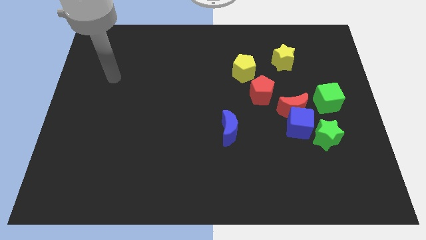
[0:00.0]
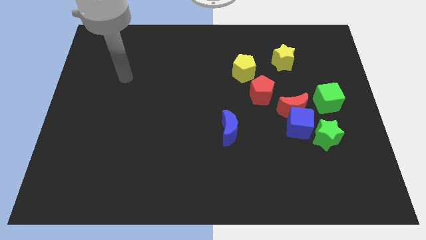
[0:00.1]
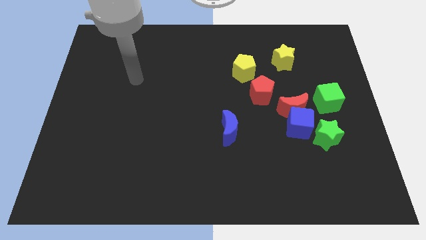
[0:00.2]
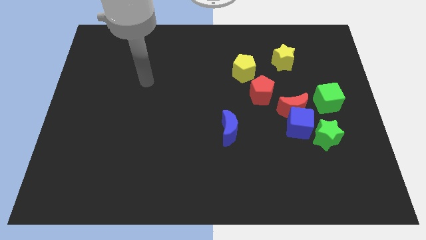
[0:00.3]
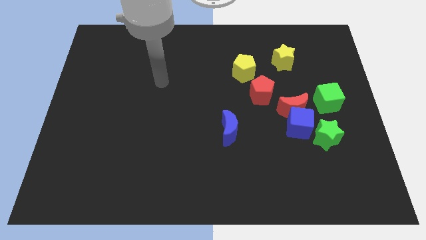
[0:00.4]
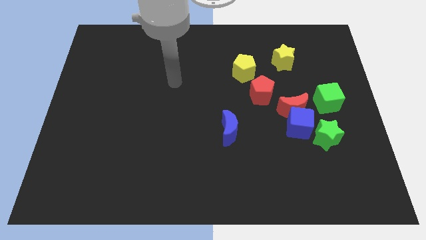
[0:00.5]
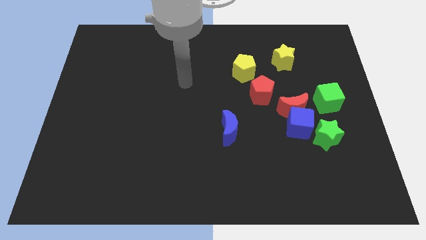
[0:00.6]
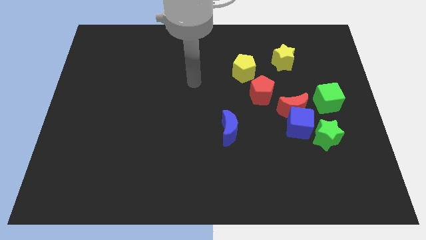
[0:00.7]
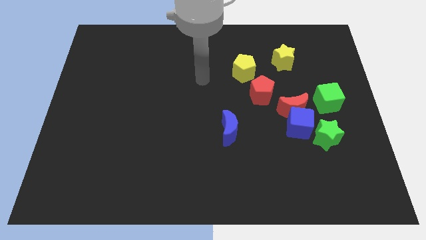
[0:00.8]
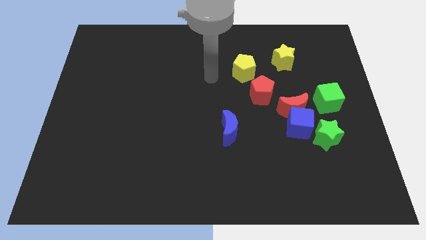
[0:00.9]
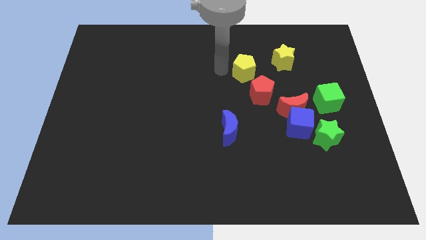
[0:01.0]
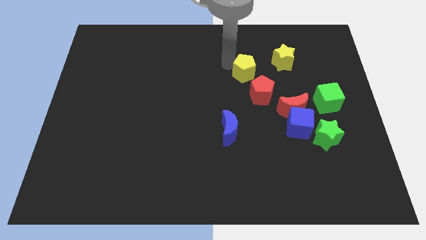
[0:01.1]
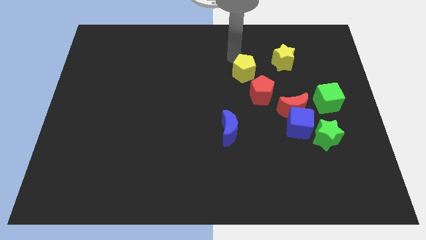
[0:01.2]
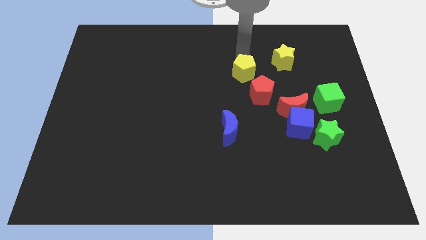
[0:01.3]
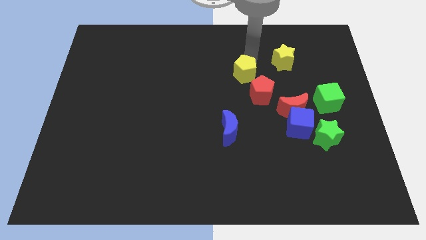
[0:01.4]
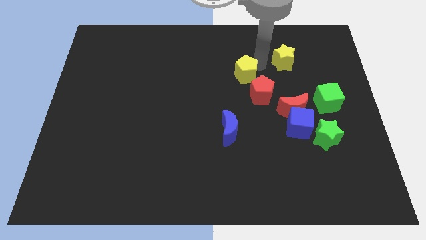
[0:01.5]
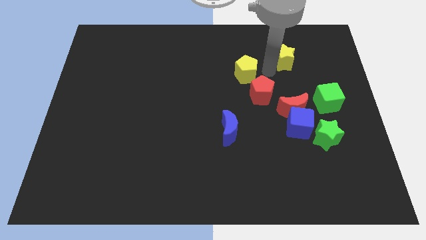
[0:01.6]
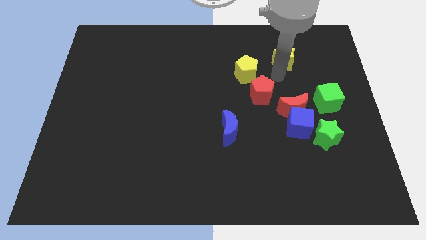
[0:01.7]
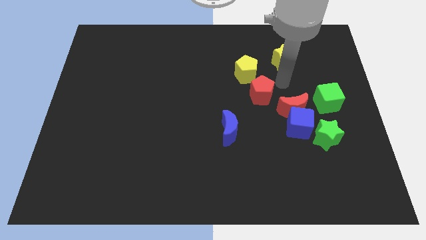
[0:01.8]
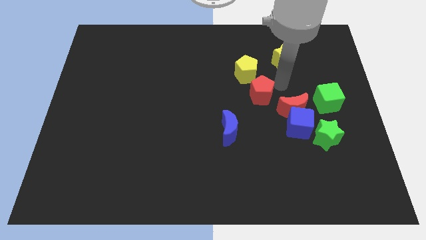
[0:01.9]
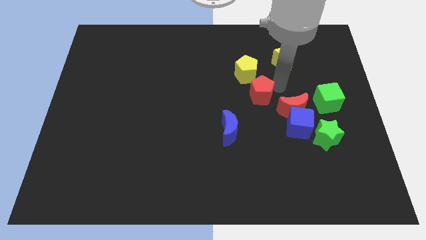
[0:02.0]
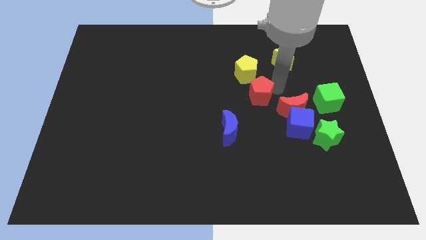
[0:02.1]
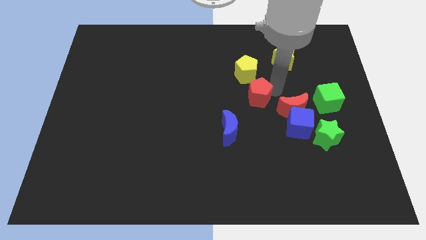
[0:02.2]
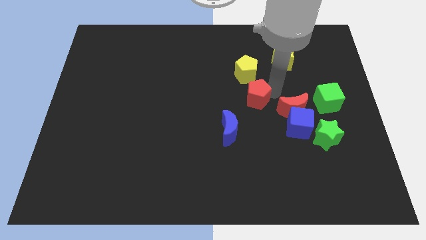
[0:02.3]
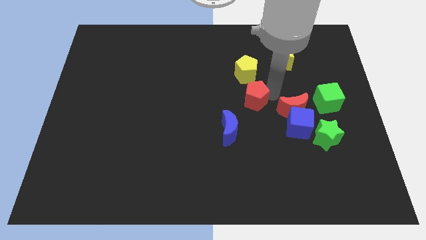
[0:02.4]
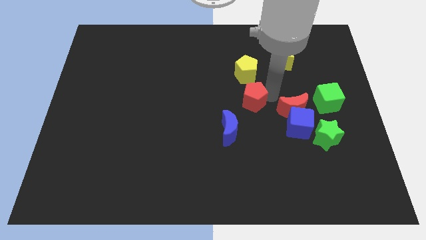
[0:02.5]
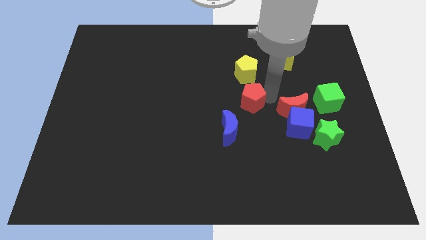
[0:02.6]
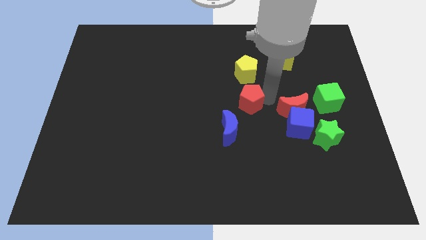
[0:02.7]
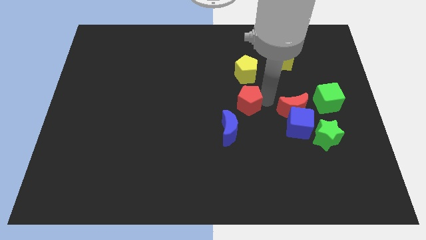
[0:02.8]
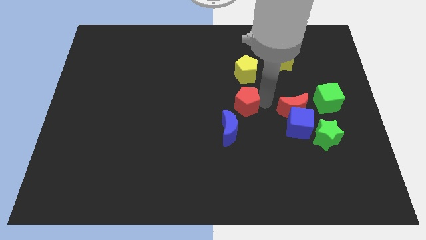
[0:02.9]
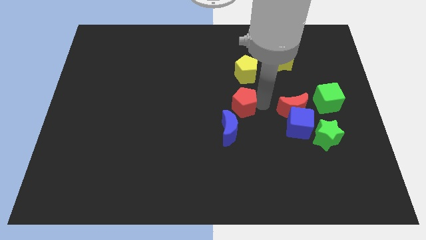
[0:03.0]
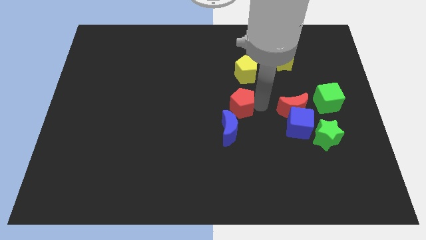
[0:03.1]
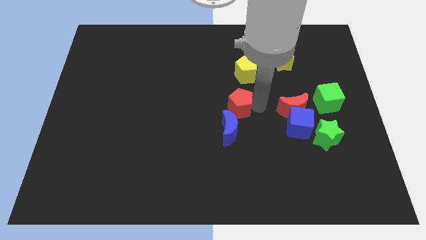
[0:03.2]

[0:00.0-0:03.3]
move the red pentagon downwards and left a little

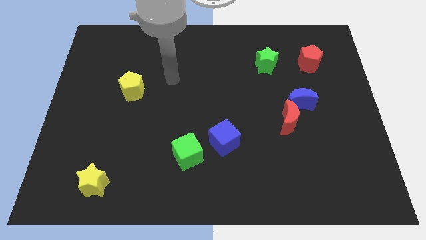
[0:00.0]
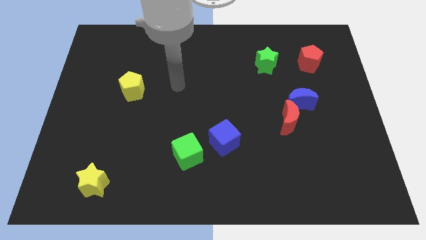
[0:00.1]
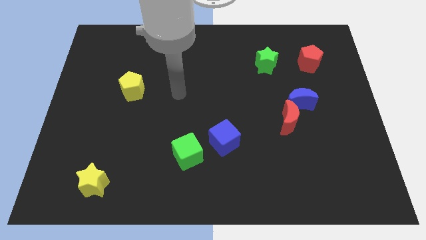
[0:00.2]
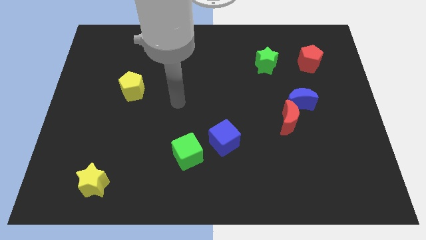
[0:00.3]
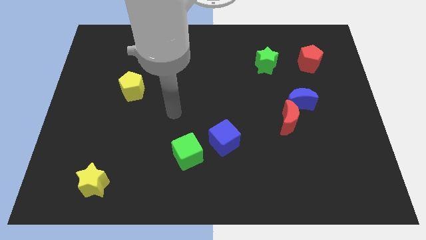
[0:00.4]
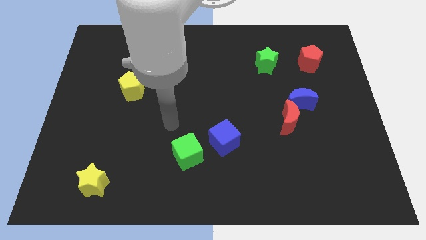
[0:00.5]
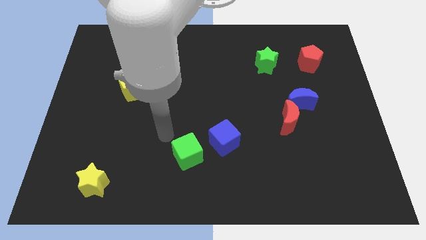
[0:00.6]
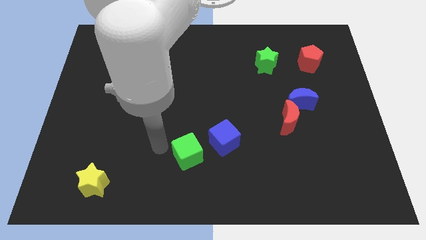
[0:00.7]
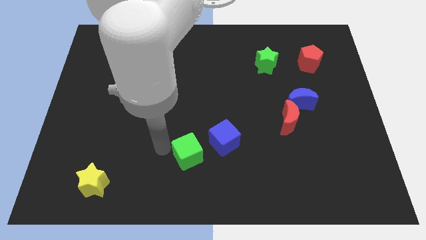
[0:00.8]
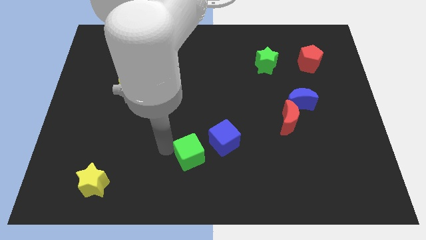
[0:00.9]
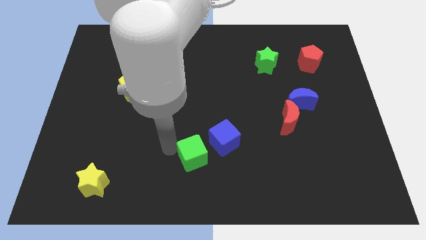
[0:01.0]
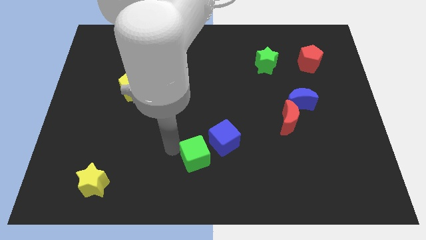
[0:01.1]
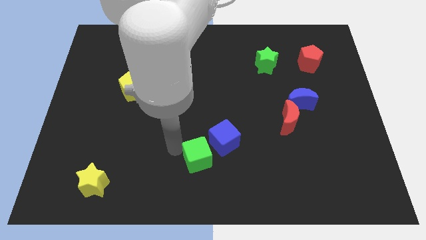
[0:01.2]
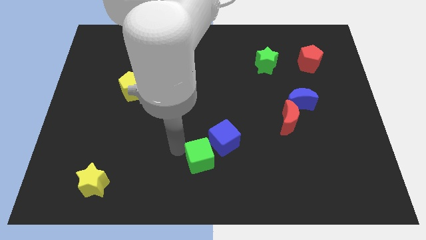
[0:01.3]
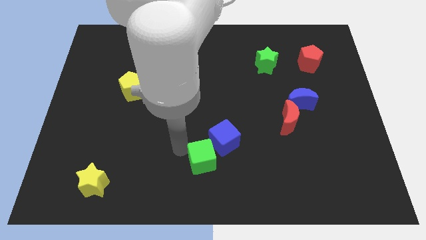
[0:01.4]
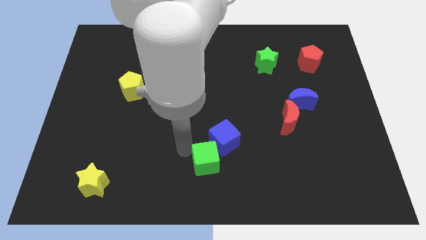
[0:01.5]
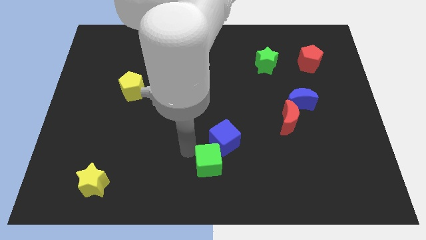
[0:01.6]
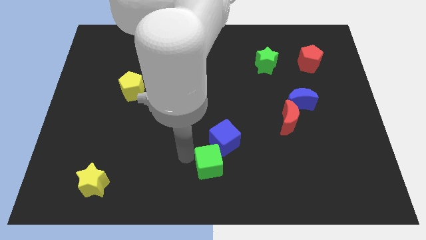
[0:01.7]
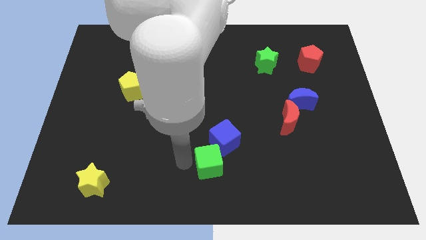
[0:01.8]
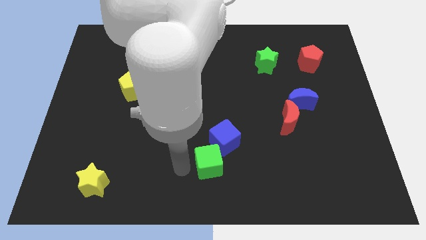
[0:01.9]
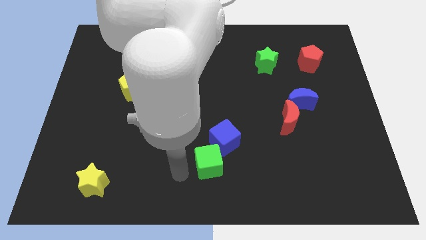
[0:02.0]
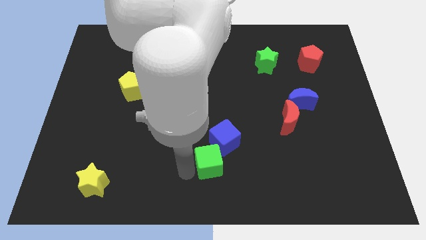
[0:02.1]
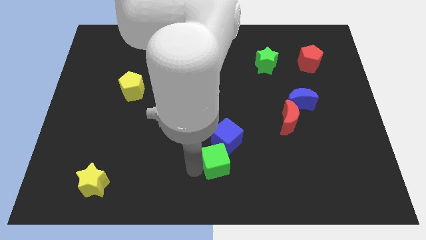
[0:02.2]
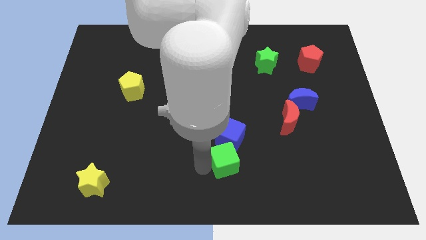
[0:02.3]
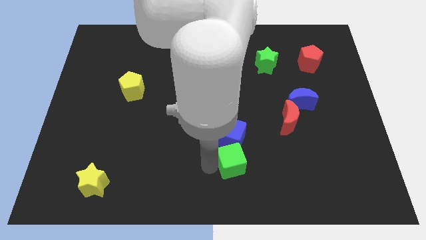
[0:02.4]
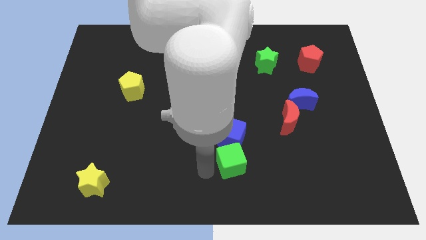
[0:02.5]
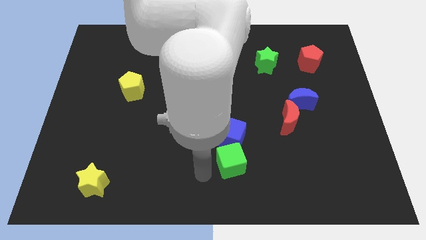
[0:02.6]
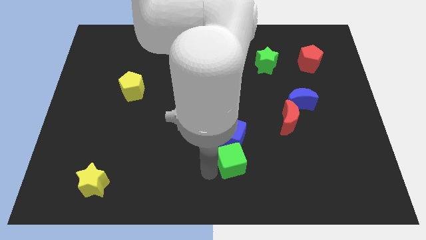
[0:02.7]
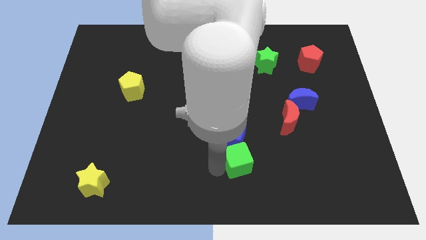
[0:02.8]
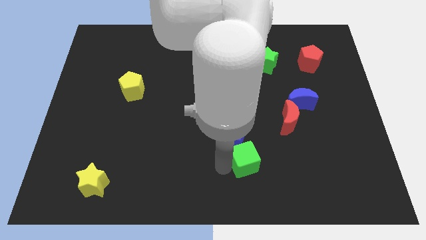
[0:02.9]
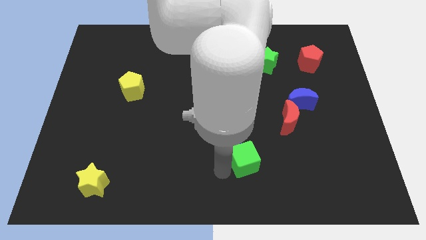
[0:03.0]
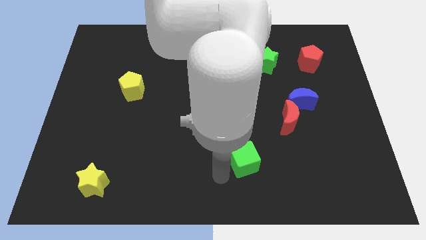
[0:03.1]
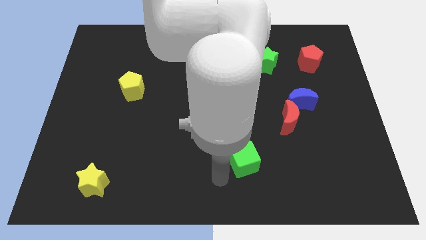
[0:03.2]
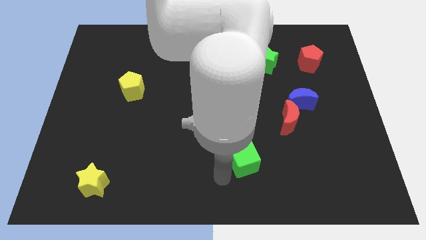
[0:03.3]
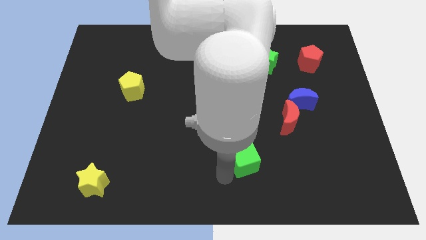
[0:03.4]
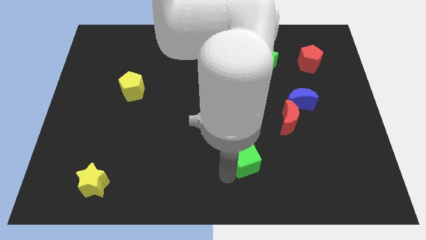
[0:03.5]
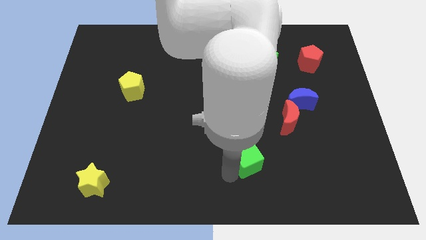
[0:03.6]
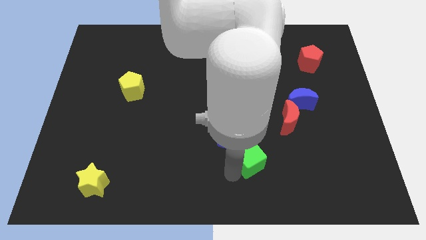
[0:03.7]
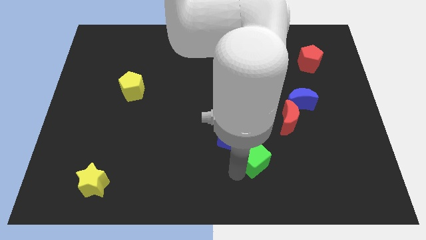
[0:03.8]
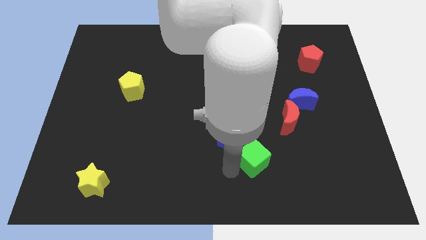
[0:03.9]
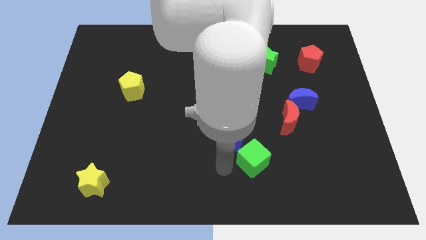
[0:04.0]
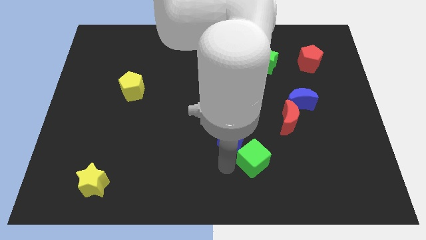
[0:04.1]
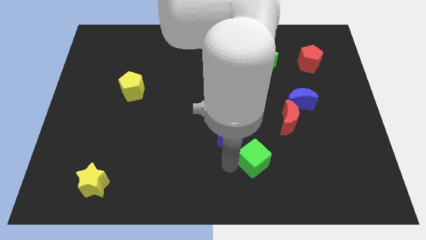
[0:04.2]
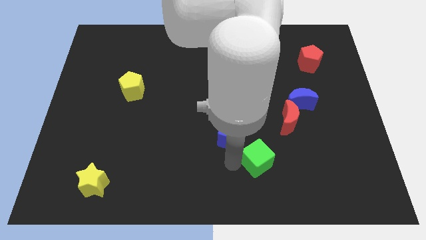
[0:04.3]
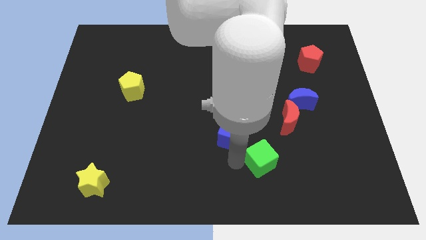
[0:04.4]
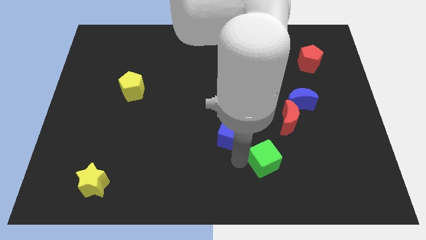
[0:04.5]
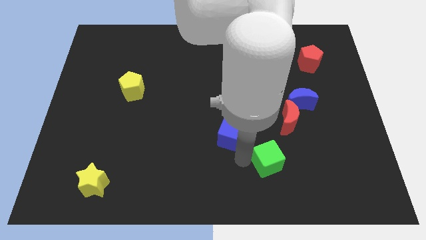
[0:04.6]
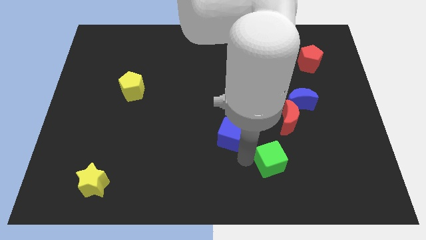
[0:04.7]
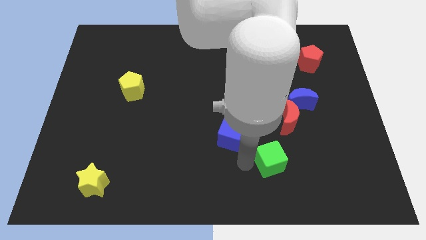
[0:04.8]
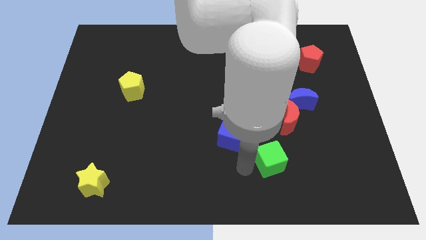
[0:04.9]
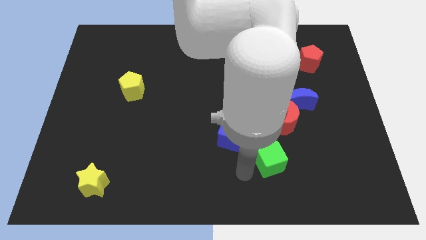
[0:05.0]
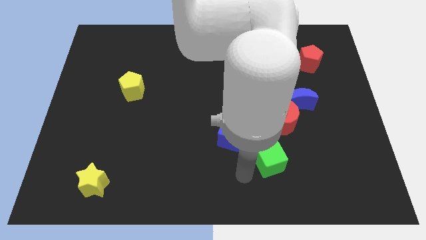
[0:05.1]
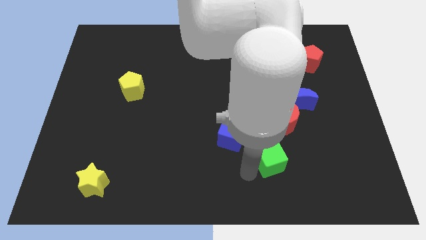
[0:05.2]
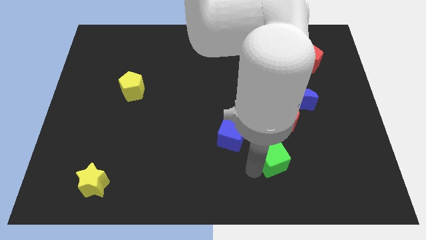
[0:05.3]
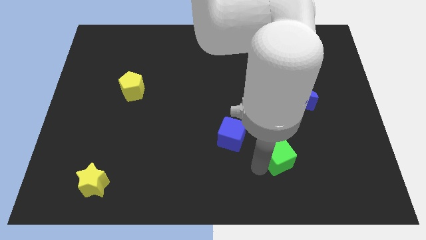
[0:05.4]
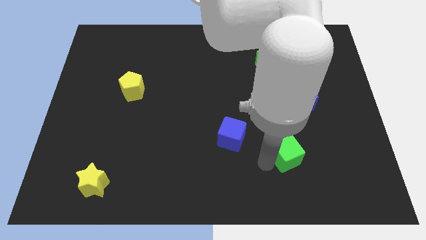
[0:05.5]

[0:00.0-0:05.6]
push the green cube right
